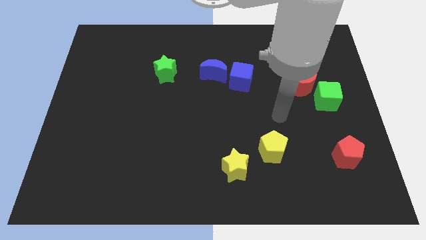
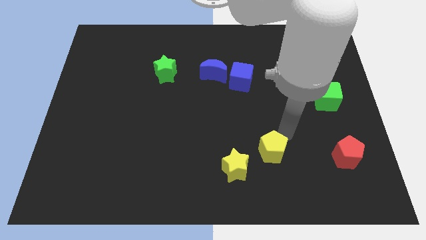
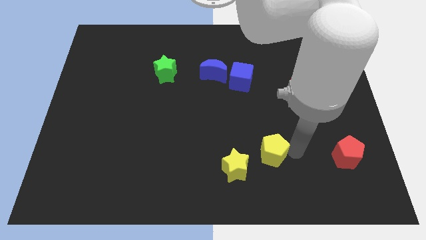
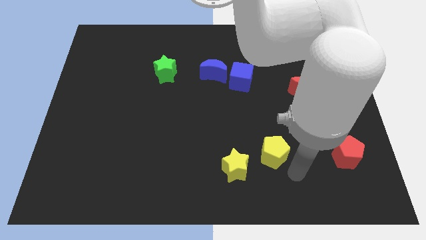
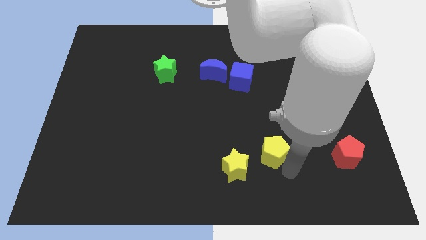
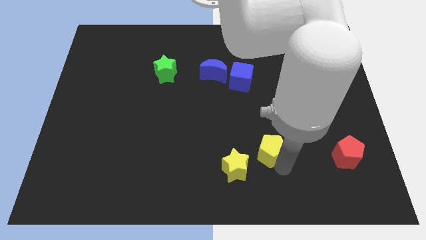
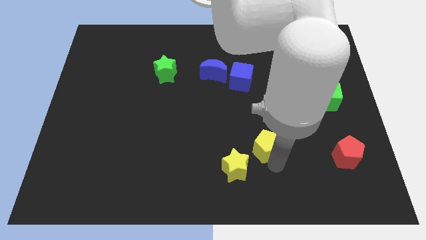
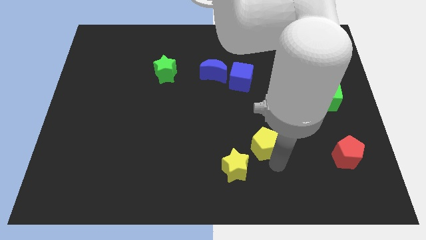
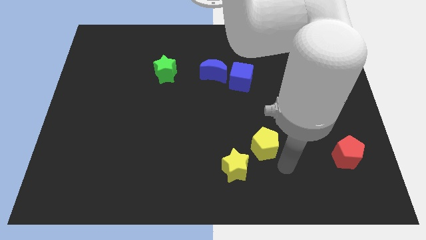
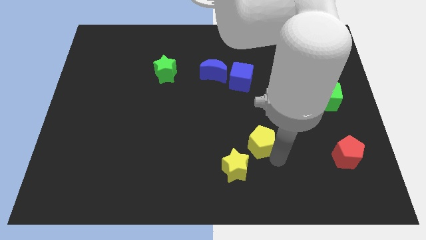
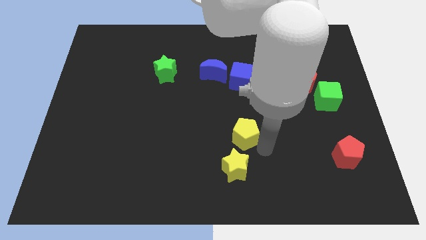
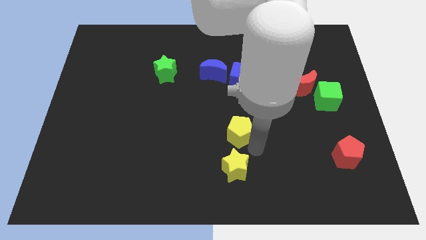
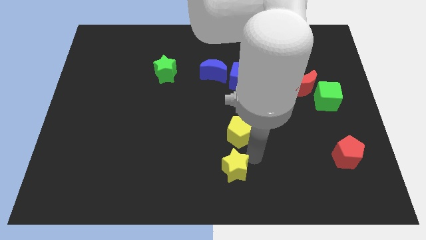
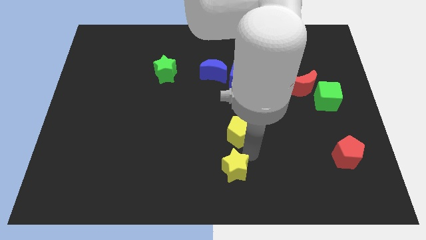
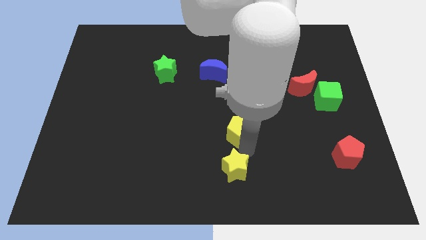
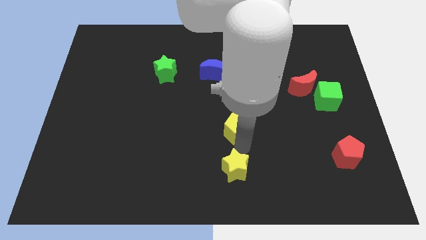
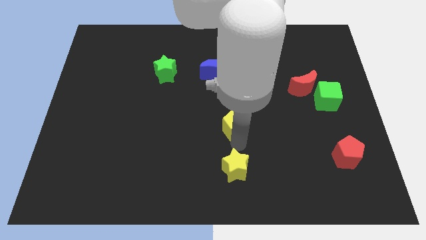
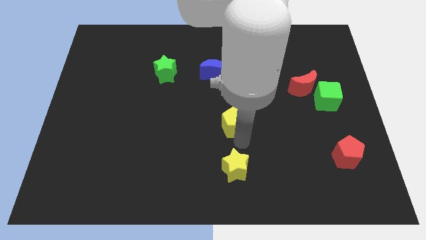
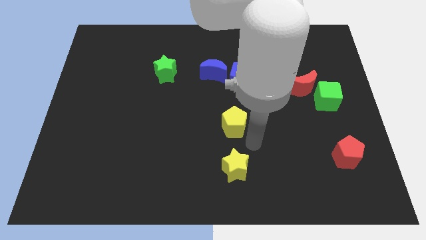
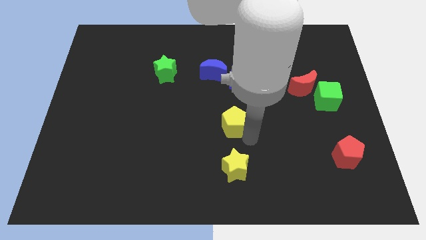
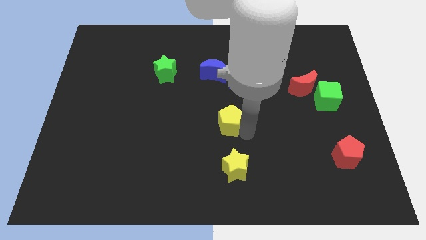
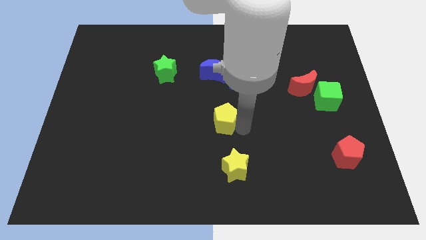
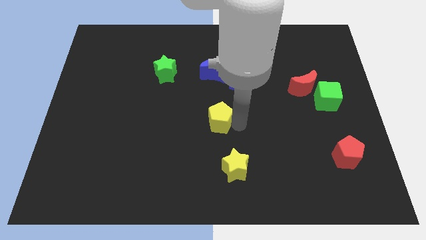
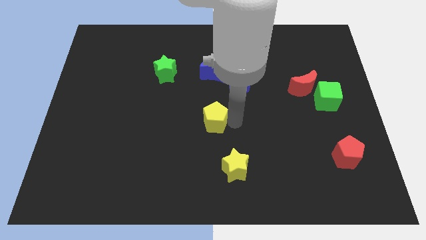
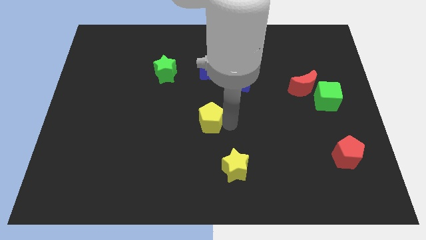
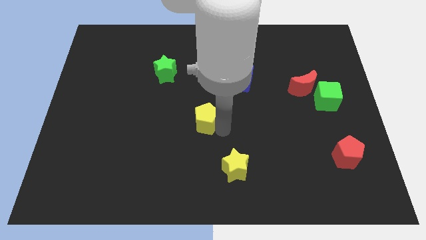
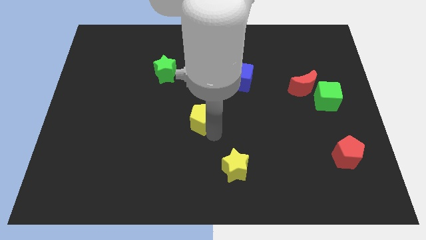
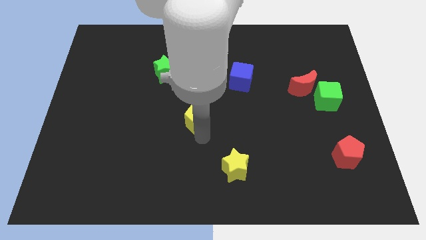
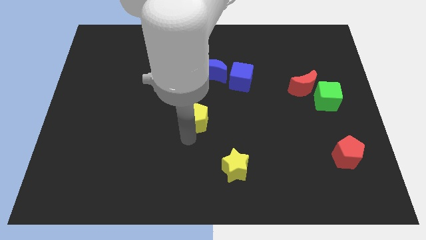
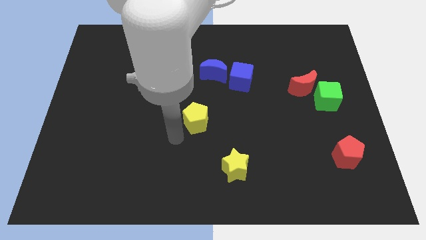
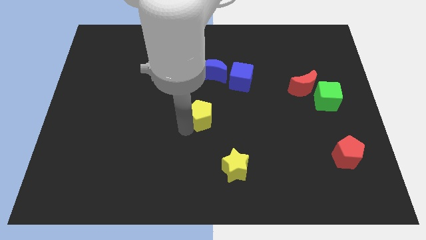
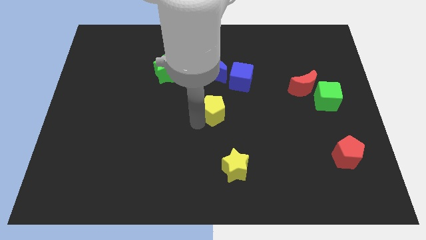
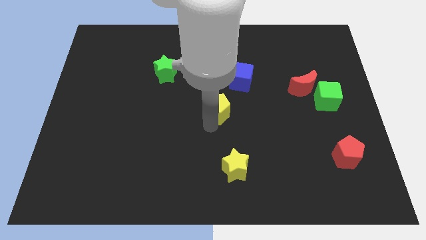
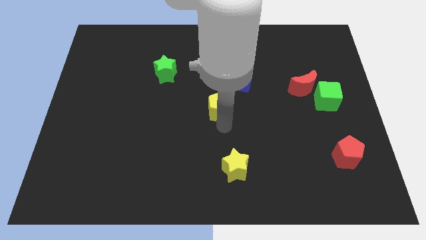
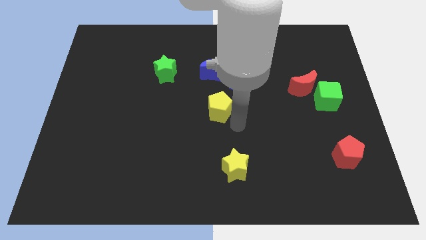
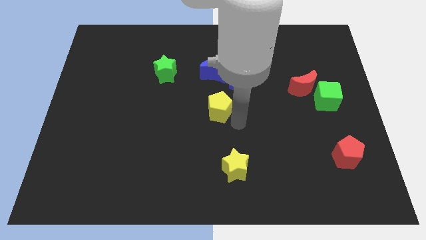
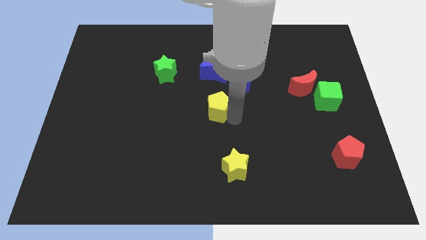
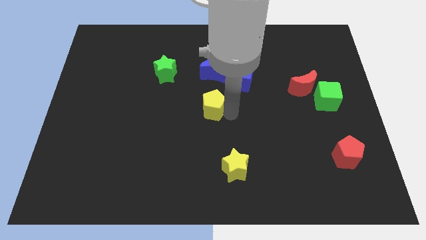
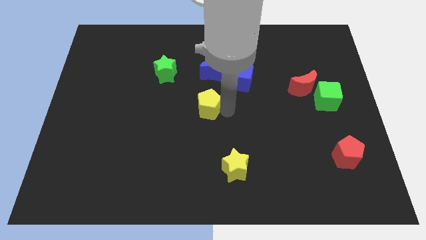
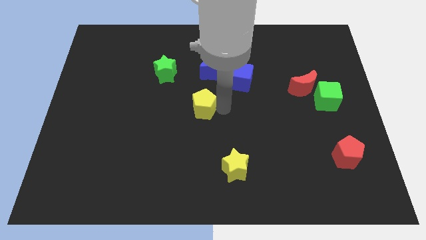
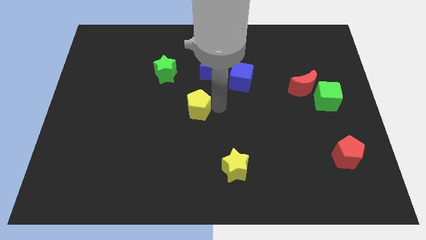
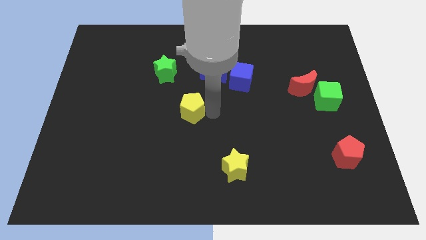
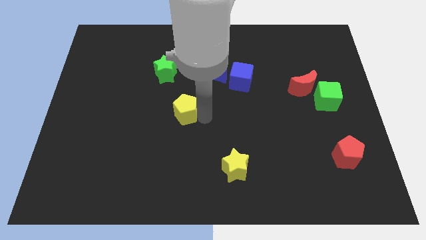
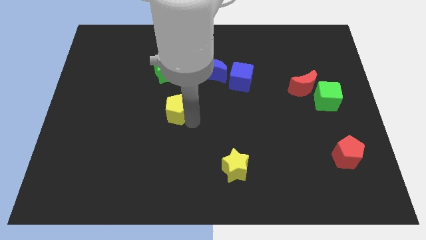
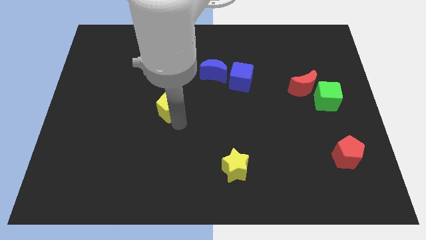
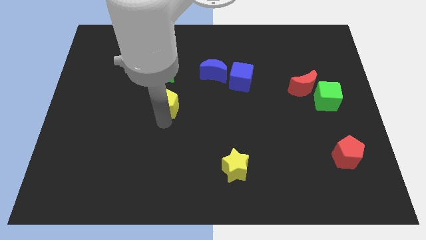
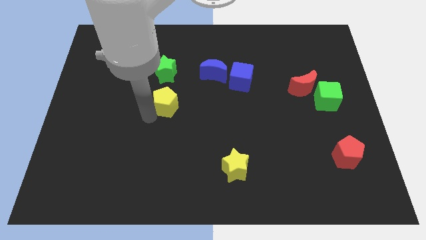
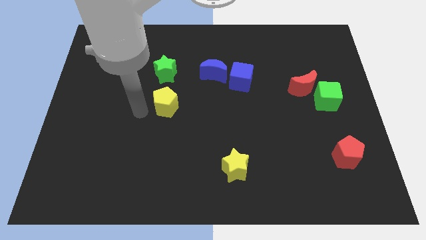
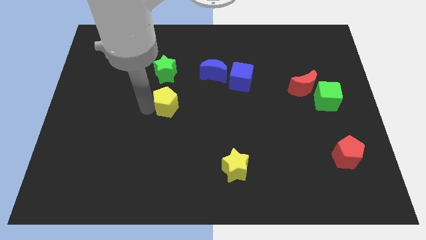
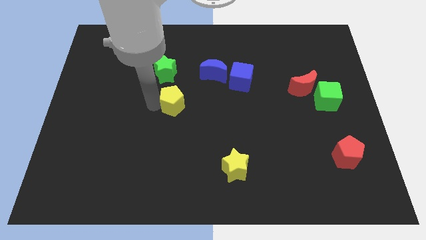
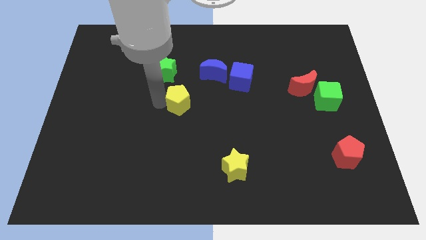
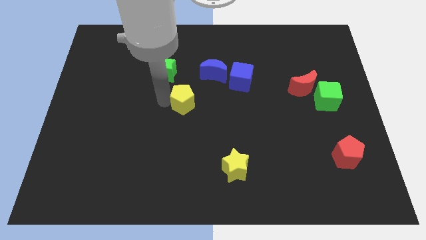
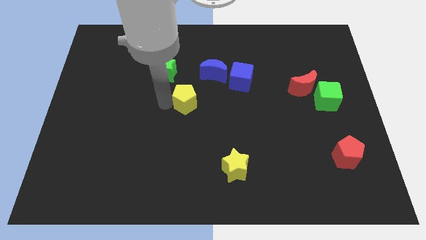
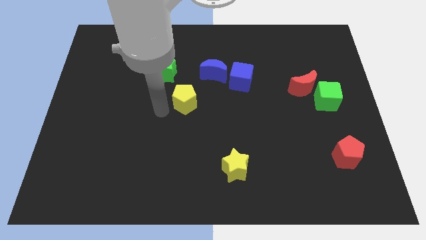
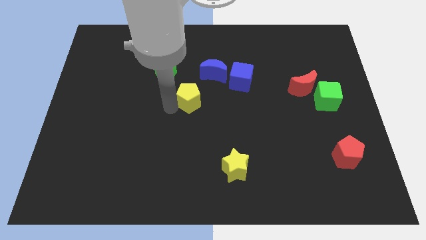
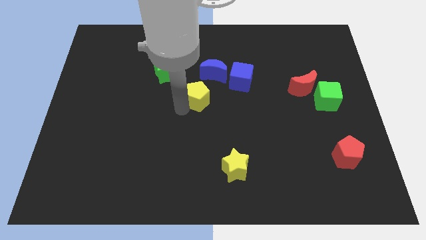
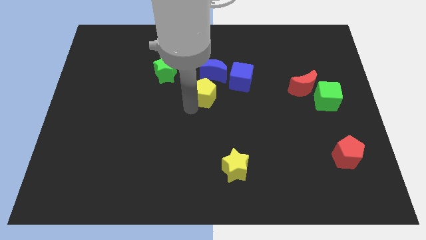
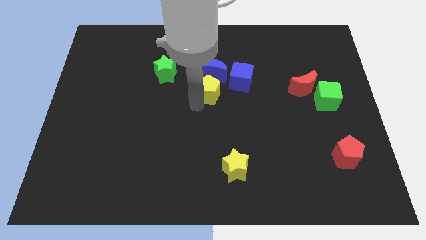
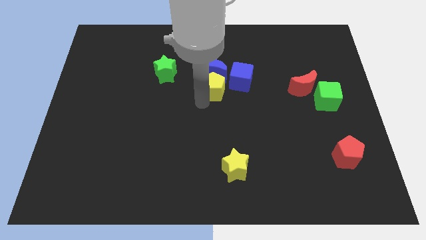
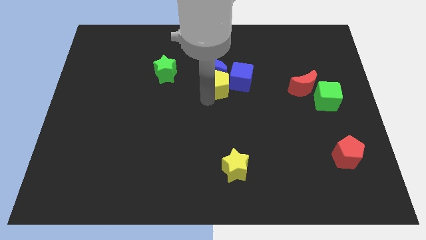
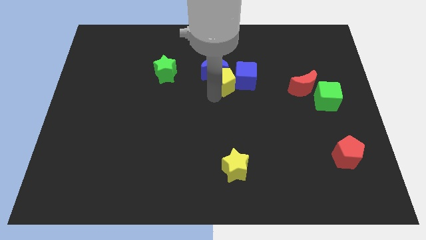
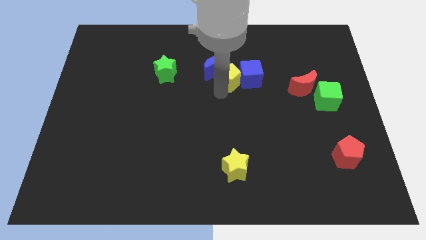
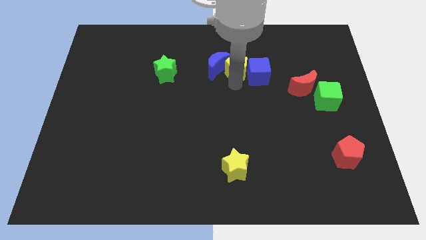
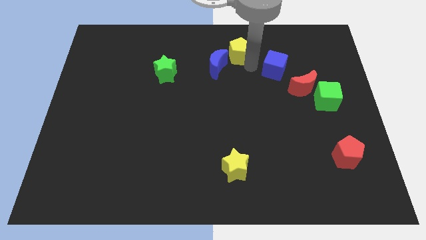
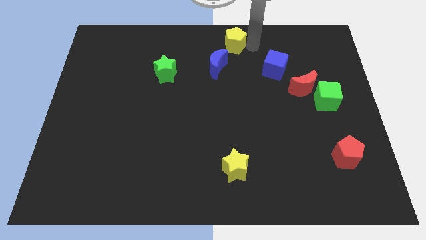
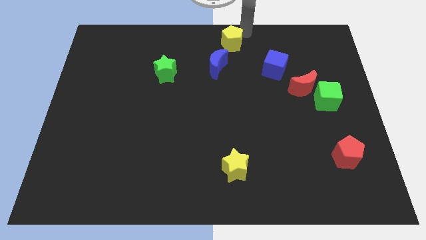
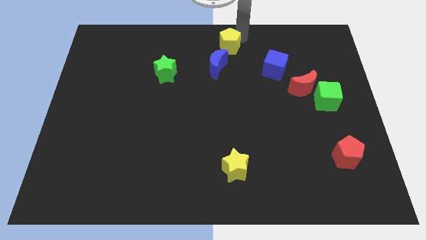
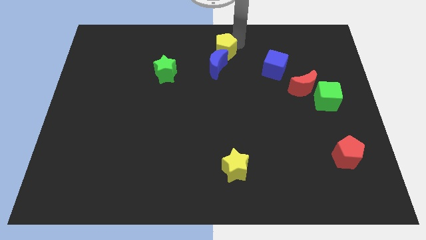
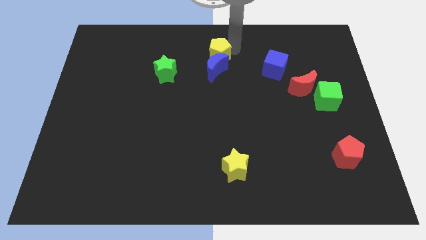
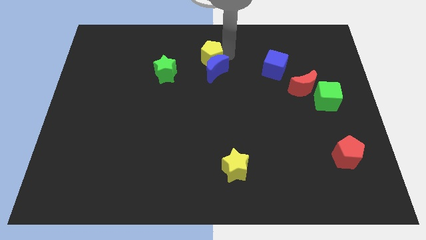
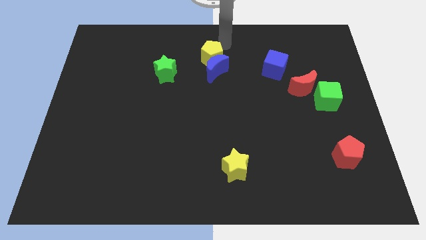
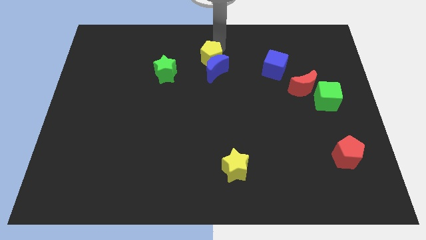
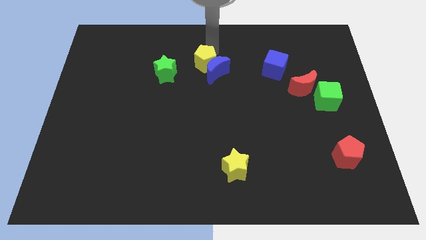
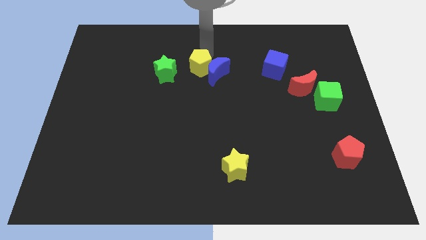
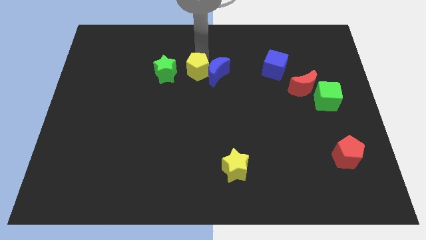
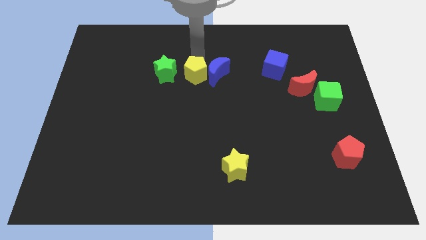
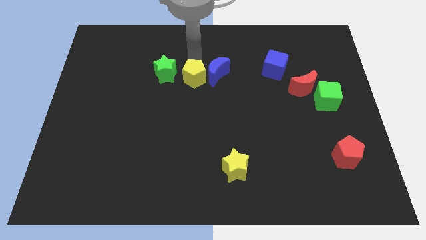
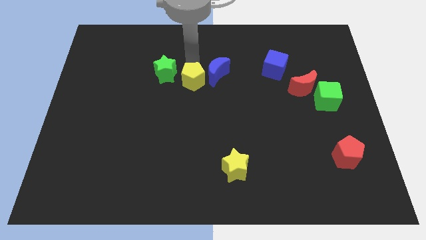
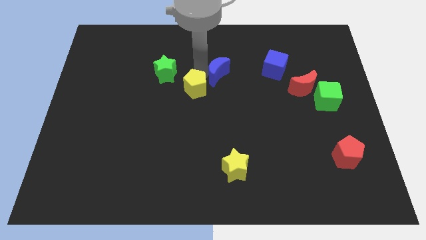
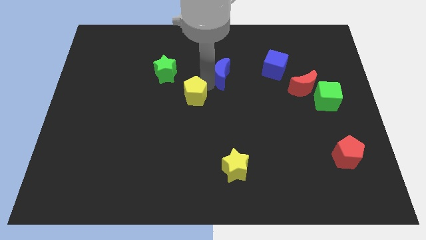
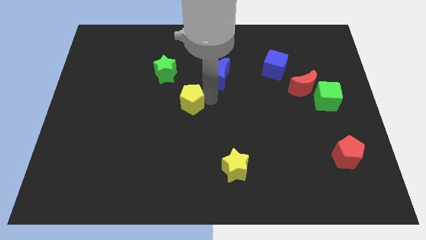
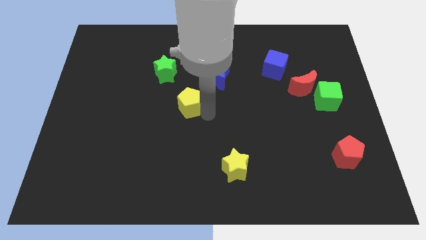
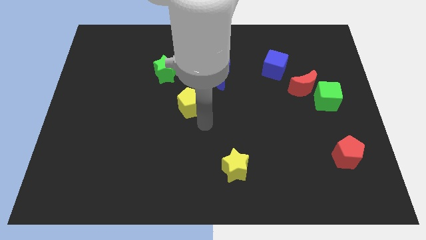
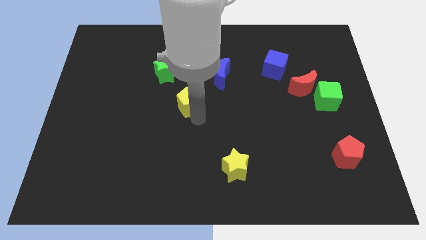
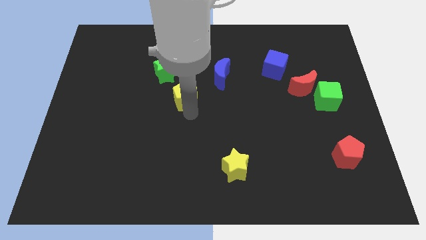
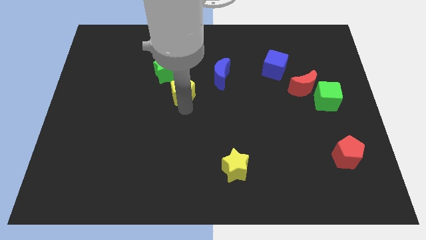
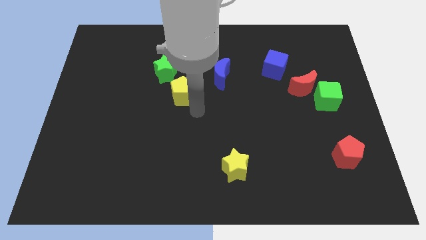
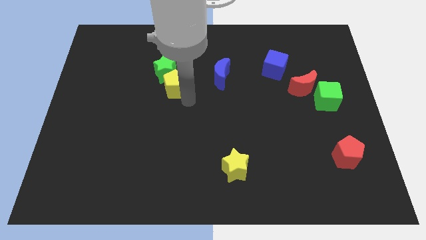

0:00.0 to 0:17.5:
push the yellow pentagon next to the green star
